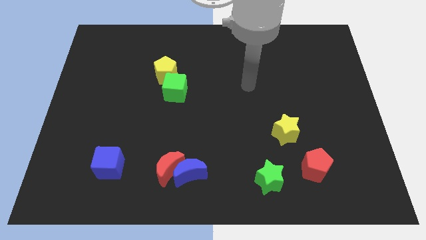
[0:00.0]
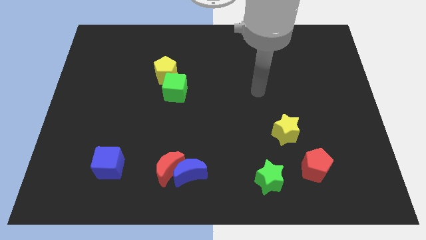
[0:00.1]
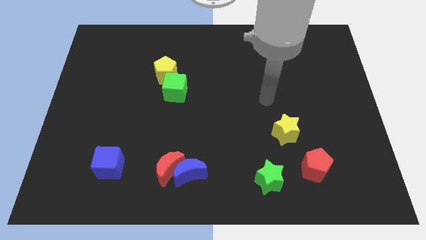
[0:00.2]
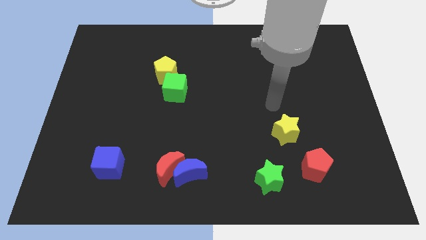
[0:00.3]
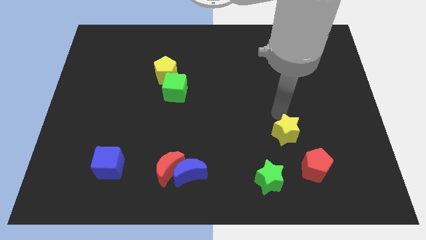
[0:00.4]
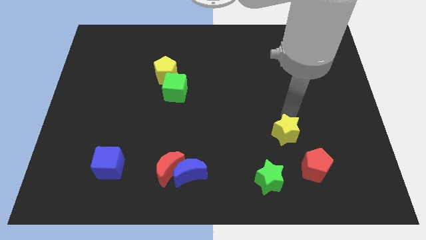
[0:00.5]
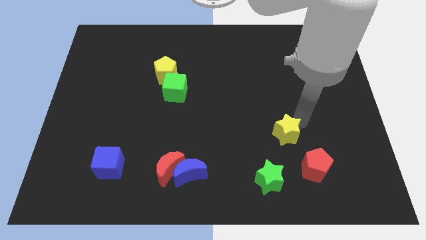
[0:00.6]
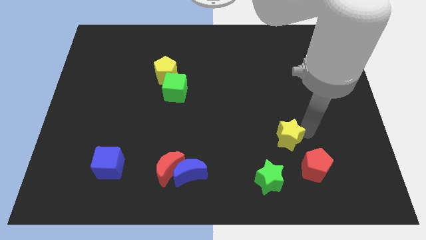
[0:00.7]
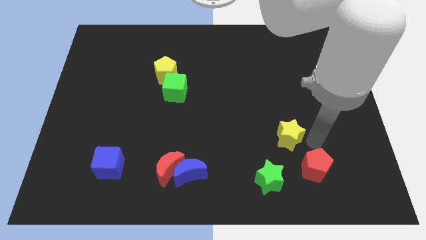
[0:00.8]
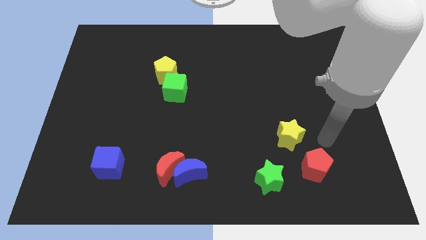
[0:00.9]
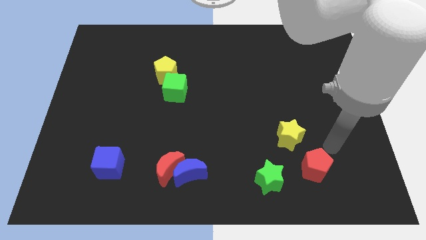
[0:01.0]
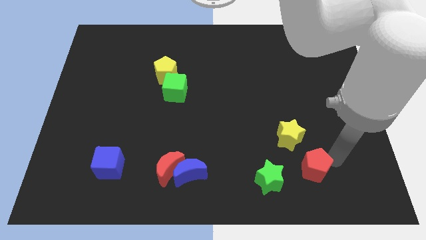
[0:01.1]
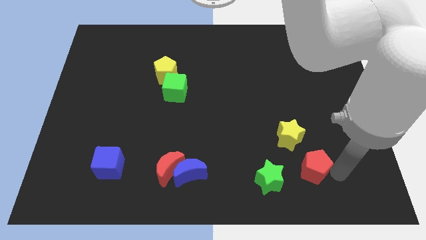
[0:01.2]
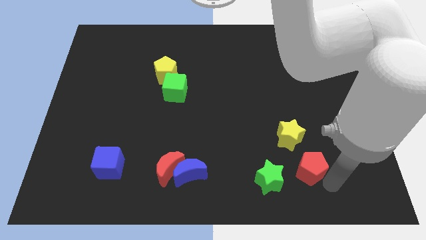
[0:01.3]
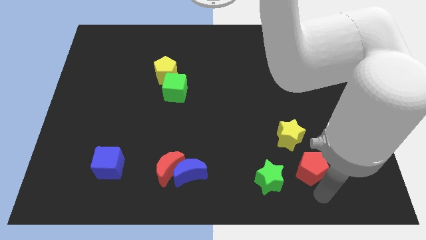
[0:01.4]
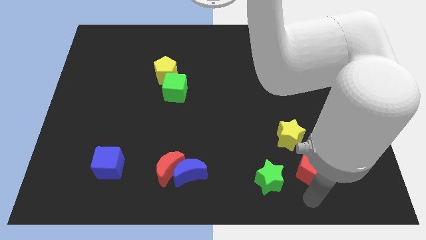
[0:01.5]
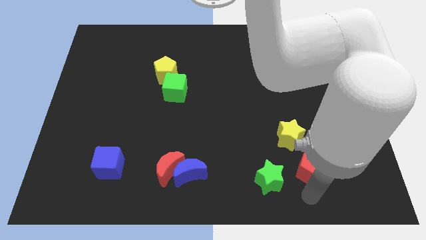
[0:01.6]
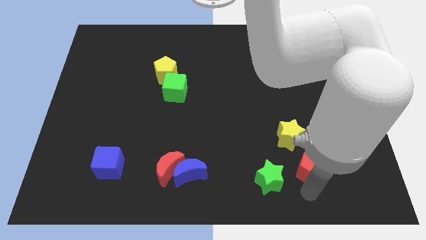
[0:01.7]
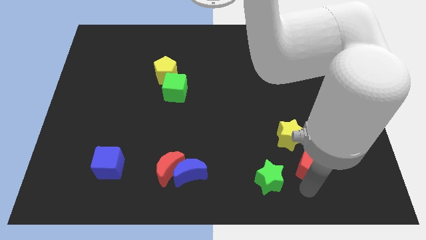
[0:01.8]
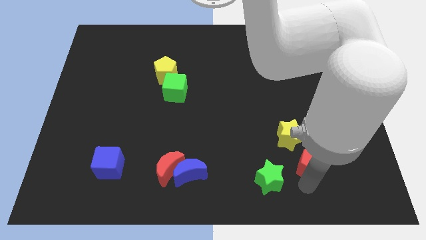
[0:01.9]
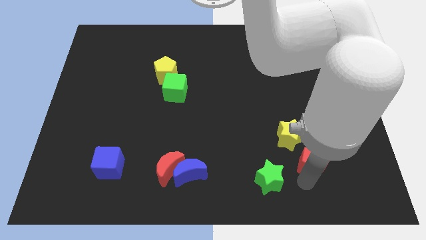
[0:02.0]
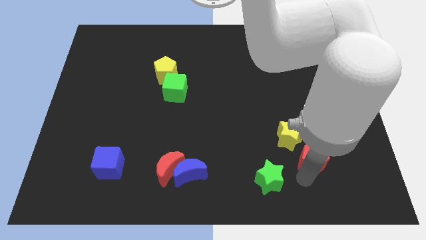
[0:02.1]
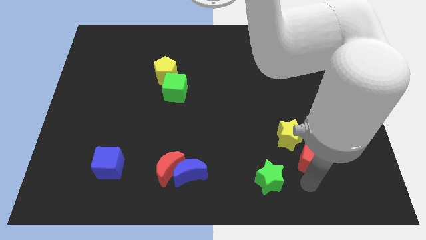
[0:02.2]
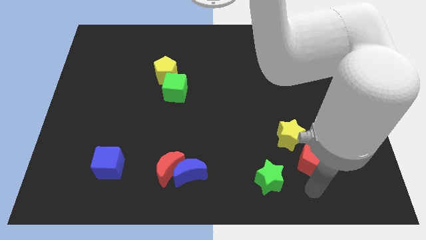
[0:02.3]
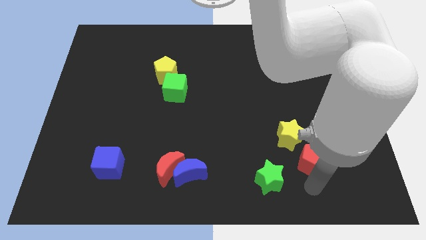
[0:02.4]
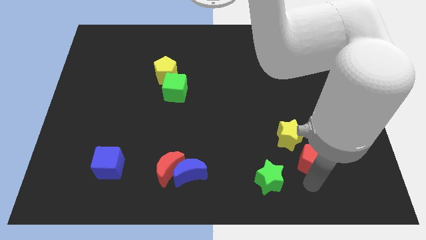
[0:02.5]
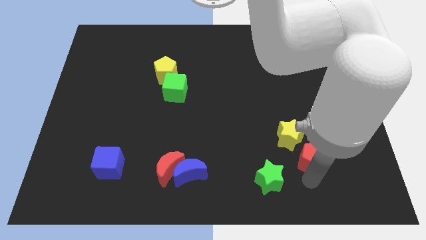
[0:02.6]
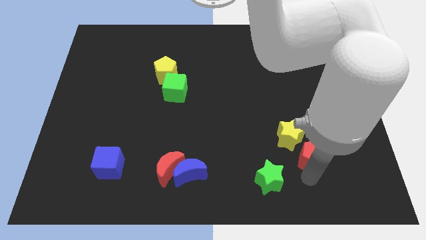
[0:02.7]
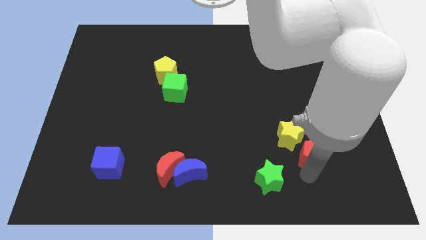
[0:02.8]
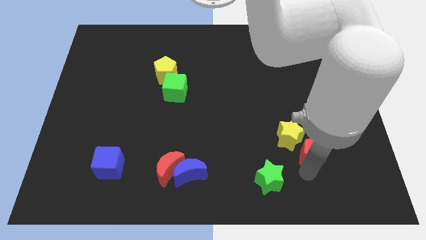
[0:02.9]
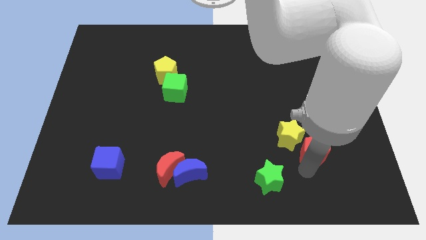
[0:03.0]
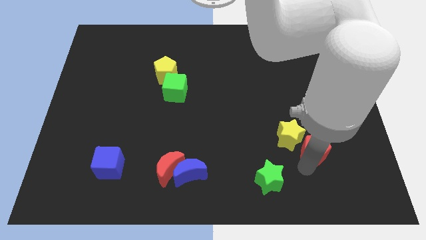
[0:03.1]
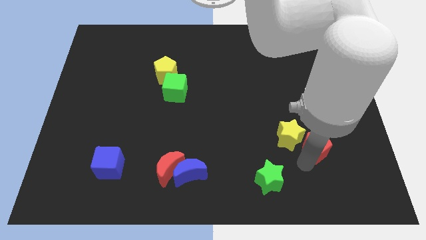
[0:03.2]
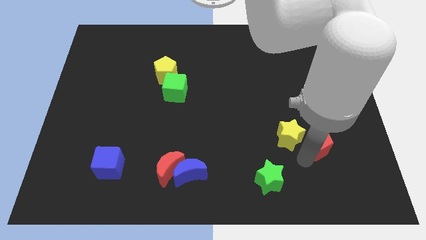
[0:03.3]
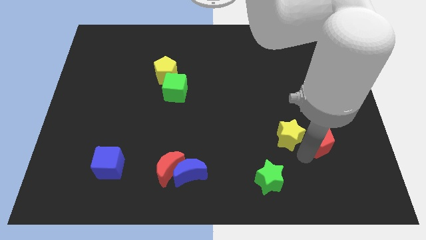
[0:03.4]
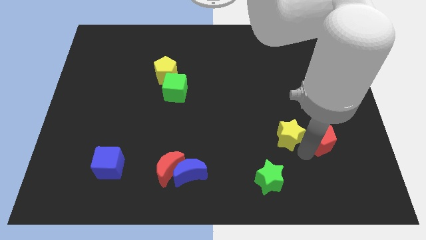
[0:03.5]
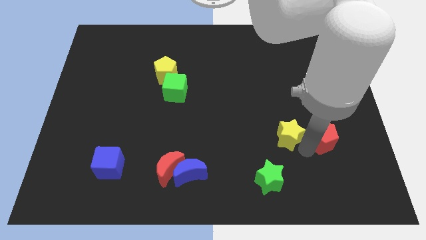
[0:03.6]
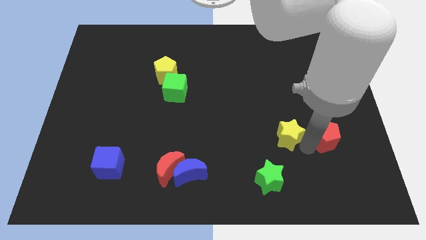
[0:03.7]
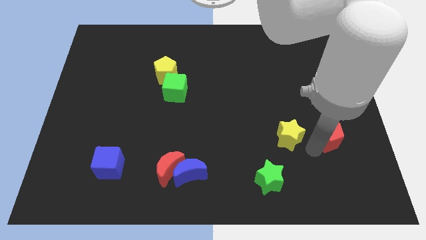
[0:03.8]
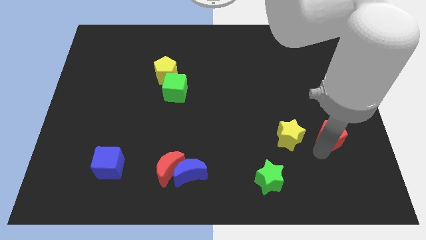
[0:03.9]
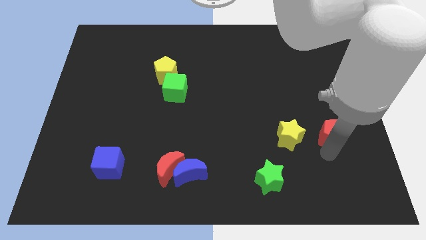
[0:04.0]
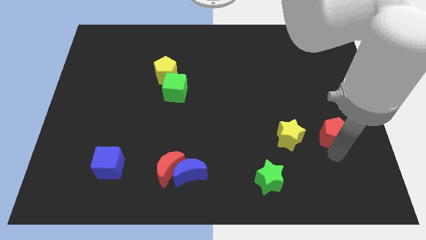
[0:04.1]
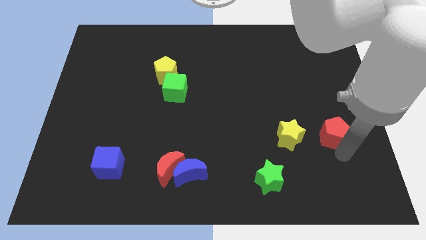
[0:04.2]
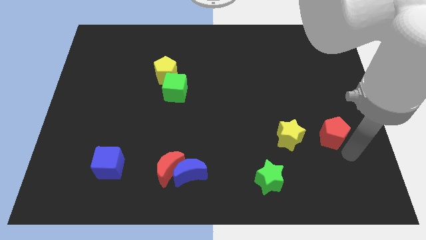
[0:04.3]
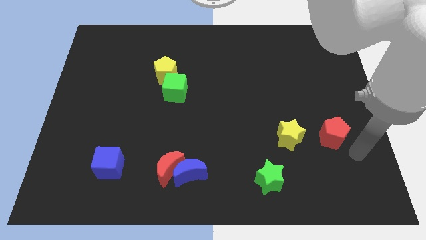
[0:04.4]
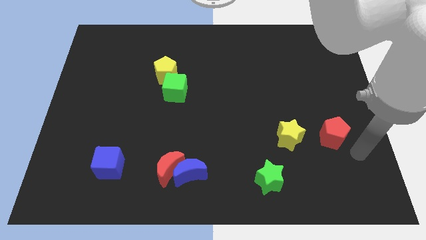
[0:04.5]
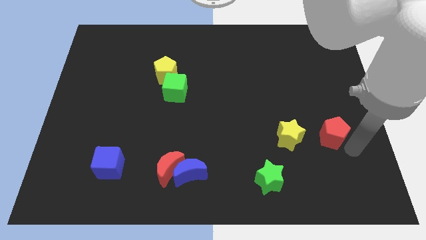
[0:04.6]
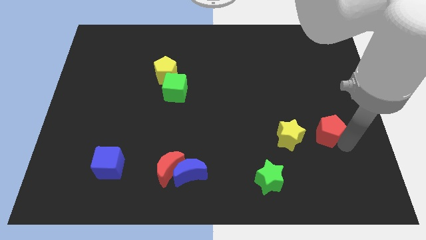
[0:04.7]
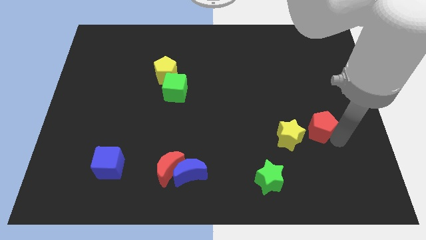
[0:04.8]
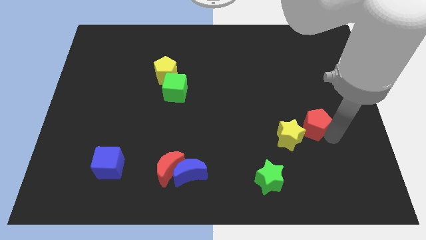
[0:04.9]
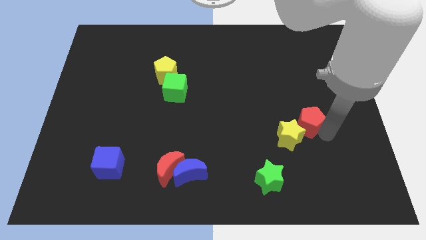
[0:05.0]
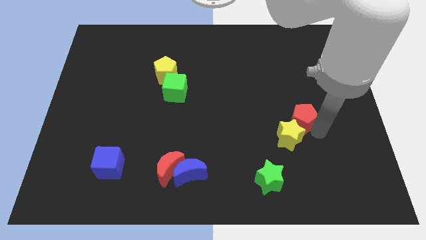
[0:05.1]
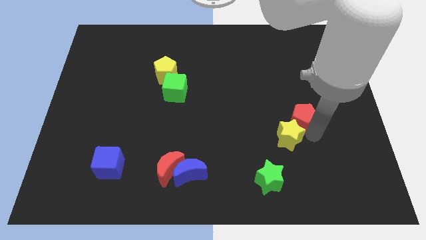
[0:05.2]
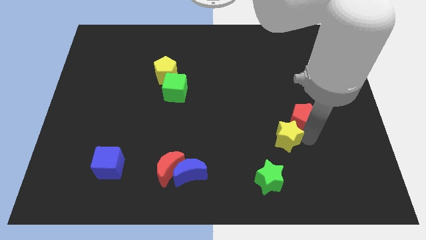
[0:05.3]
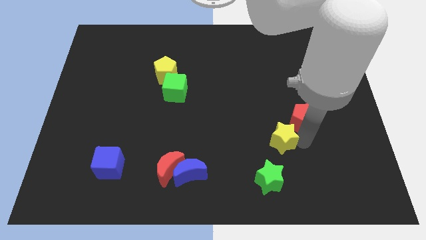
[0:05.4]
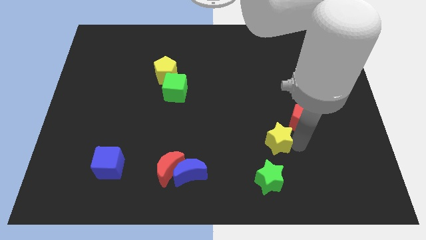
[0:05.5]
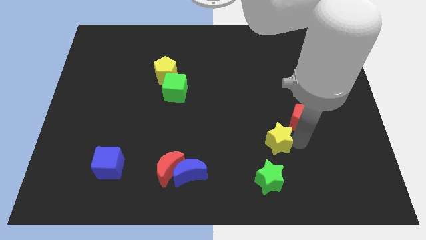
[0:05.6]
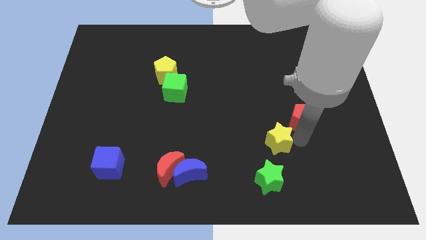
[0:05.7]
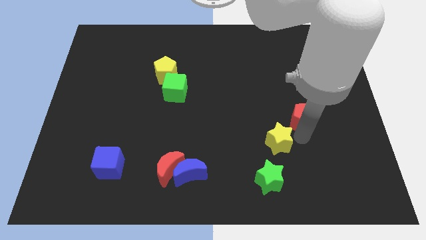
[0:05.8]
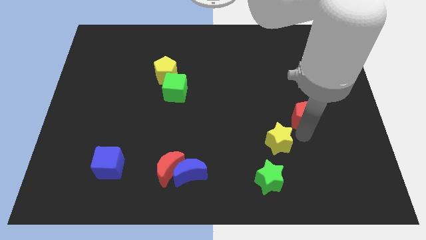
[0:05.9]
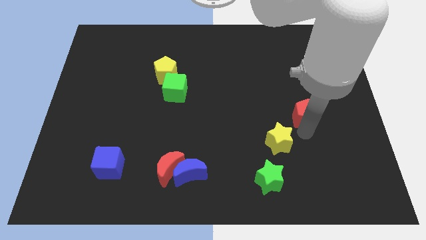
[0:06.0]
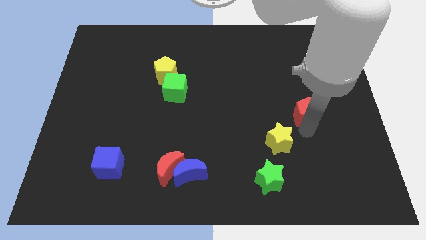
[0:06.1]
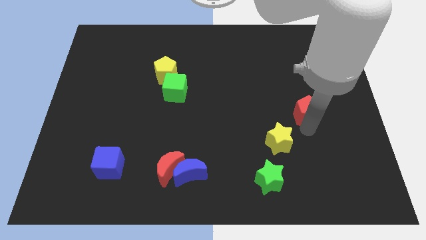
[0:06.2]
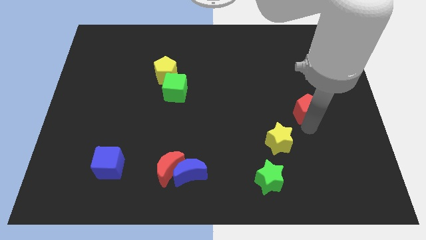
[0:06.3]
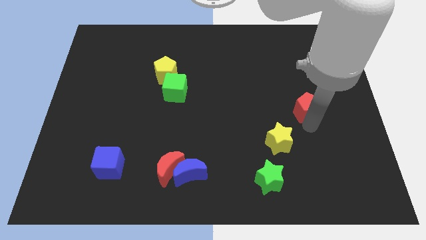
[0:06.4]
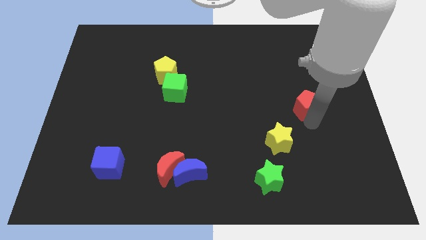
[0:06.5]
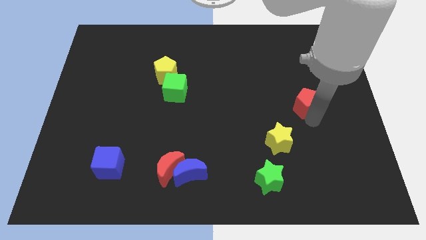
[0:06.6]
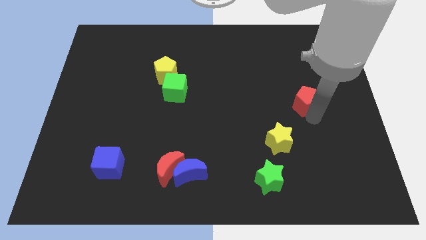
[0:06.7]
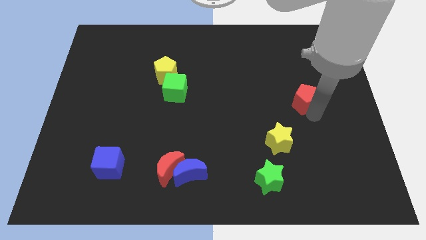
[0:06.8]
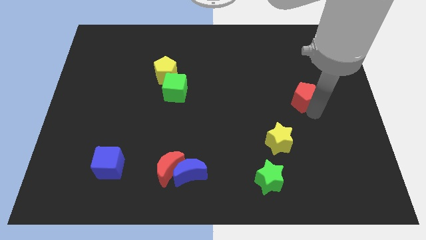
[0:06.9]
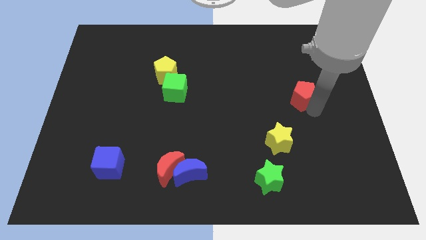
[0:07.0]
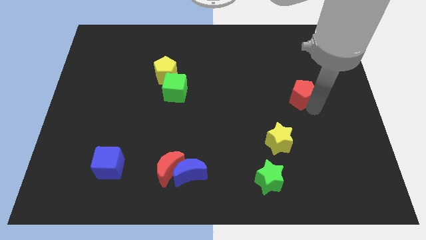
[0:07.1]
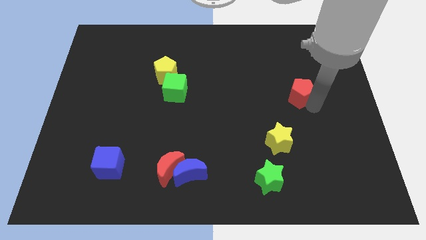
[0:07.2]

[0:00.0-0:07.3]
move the red pentagon upwards
